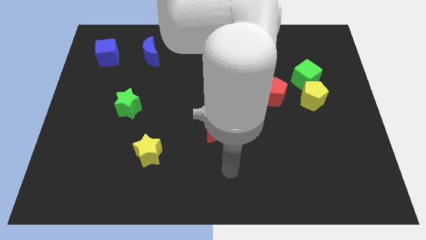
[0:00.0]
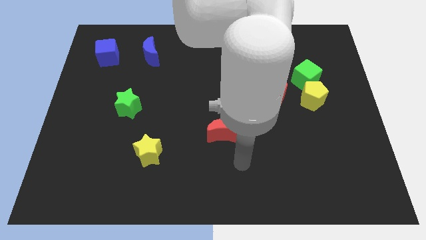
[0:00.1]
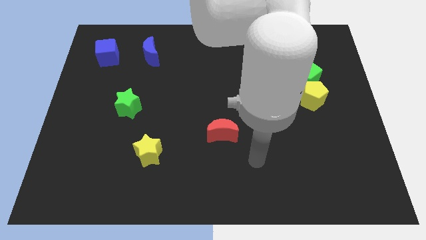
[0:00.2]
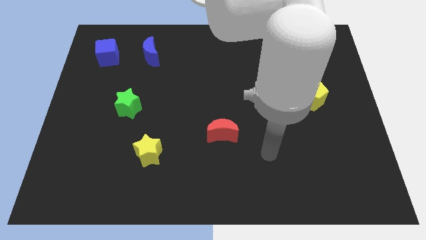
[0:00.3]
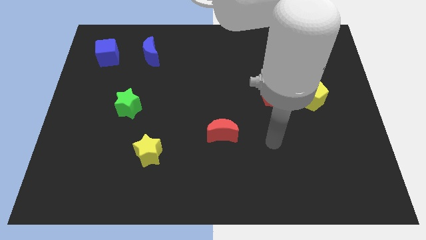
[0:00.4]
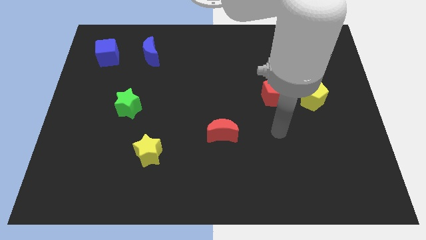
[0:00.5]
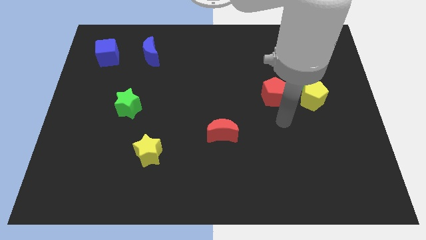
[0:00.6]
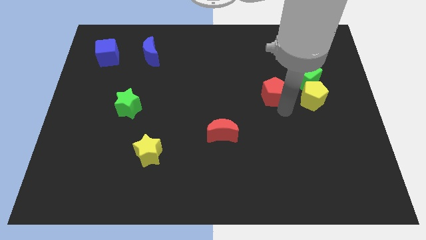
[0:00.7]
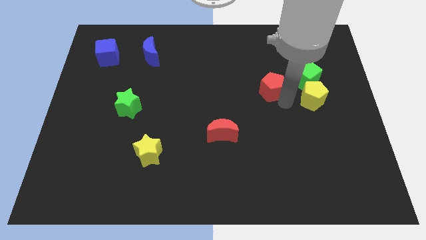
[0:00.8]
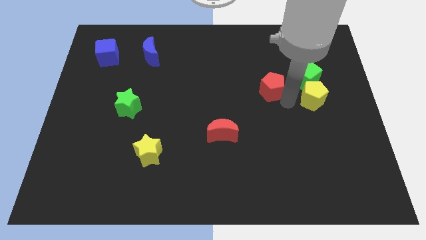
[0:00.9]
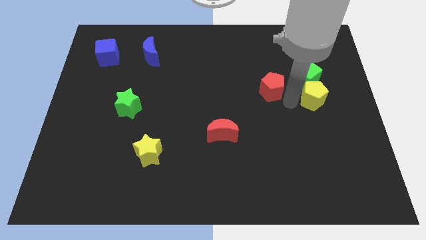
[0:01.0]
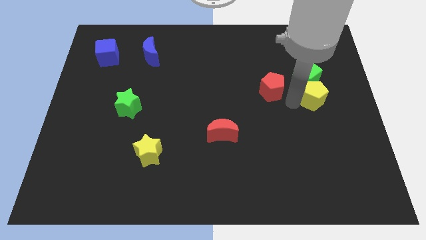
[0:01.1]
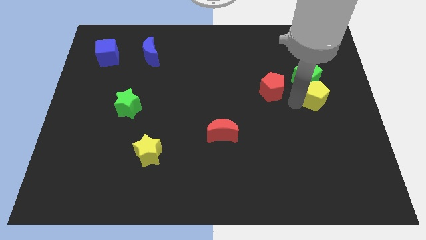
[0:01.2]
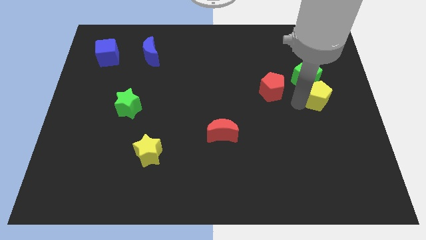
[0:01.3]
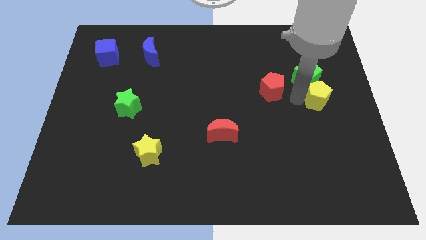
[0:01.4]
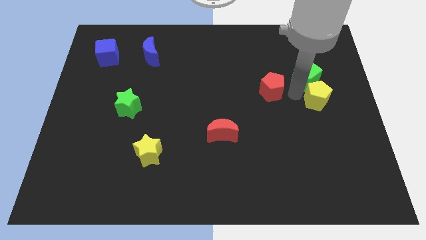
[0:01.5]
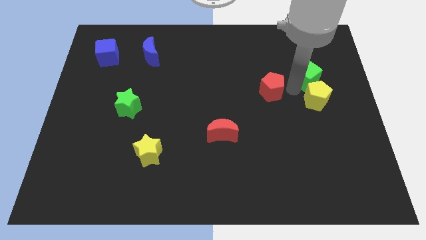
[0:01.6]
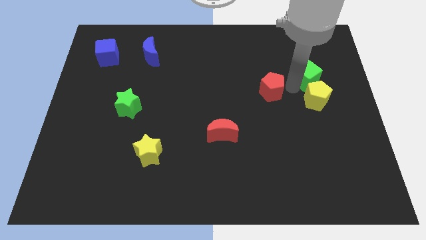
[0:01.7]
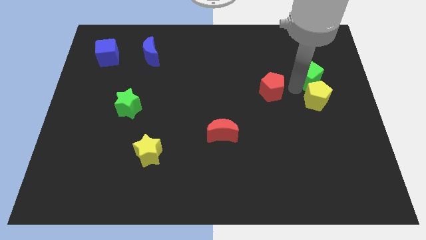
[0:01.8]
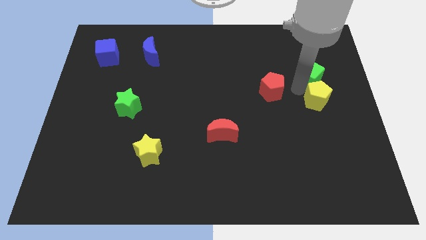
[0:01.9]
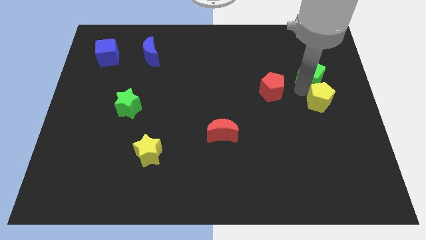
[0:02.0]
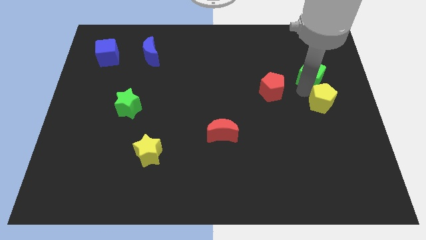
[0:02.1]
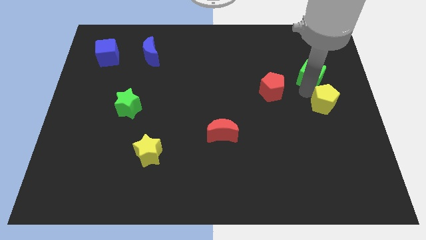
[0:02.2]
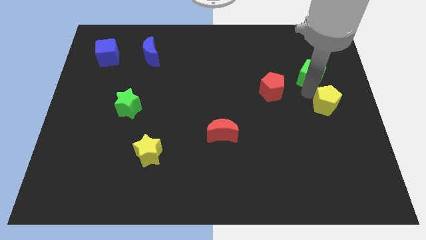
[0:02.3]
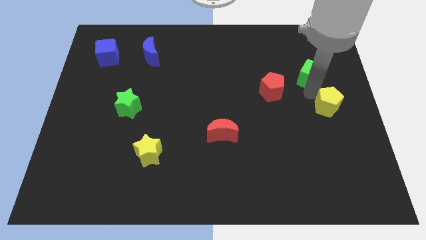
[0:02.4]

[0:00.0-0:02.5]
separate the yellow pentagon from the green cube and red pentagon

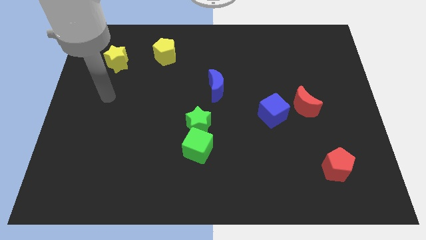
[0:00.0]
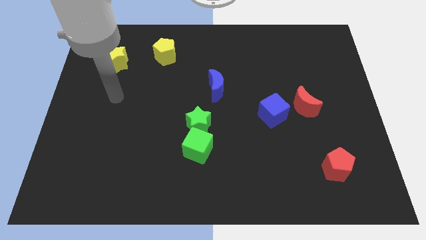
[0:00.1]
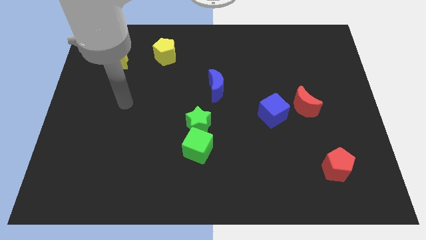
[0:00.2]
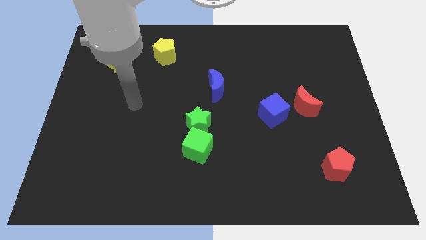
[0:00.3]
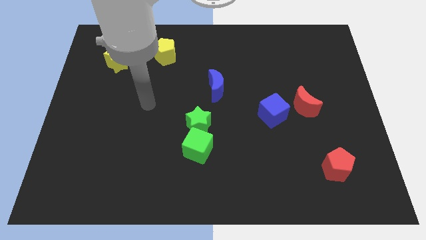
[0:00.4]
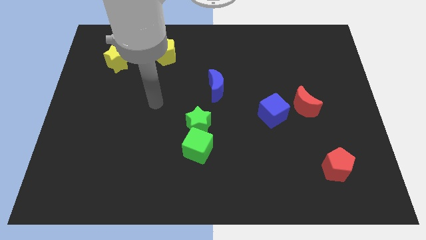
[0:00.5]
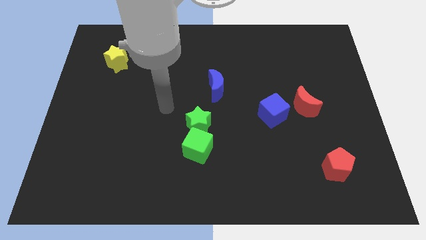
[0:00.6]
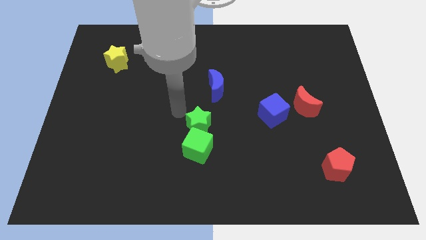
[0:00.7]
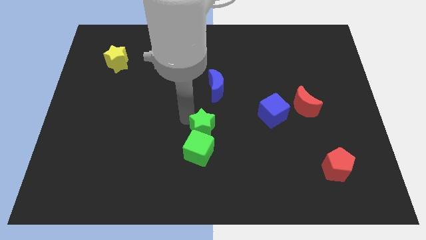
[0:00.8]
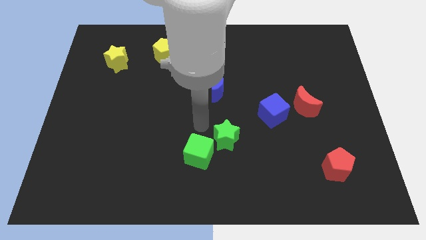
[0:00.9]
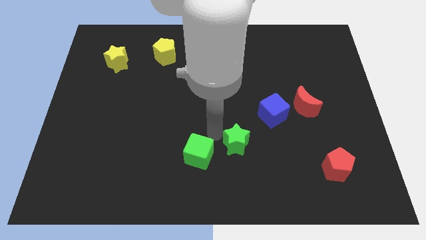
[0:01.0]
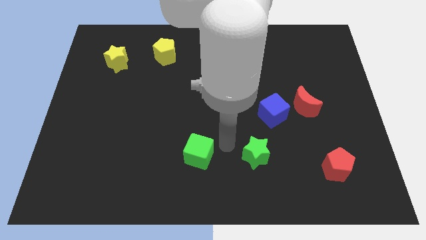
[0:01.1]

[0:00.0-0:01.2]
separate the green cube from the green star

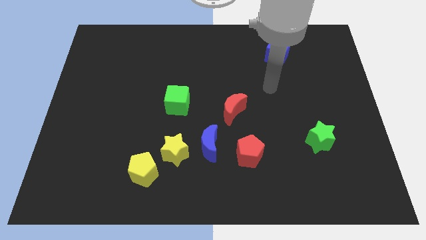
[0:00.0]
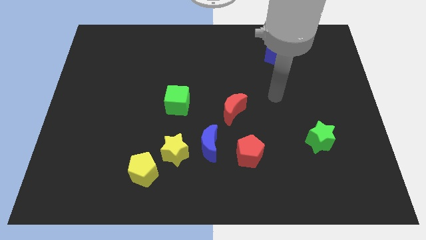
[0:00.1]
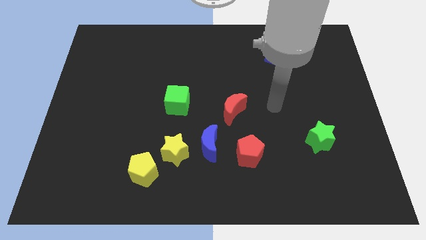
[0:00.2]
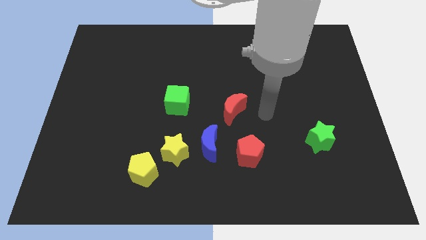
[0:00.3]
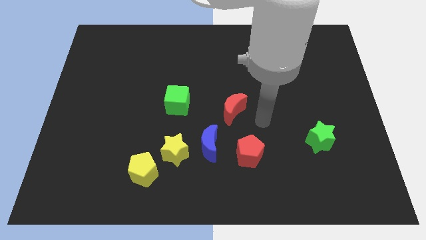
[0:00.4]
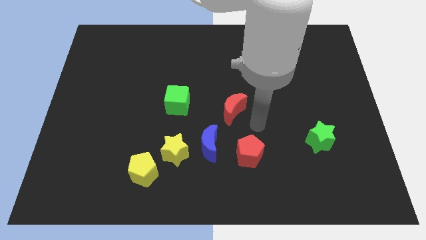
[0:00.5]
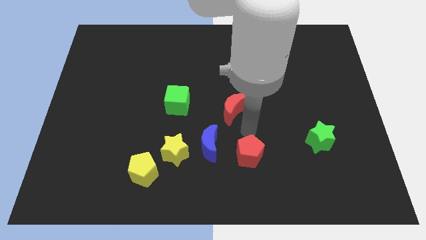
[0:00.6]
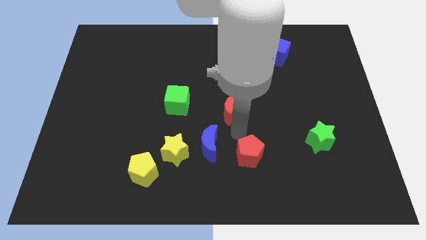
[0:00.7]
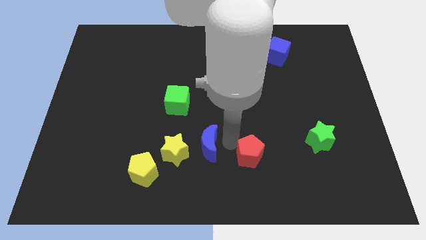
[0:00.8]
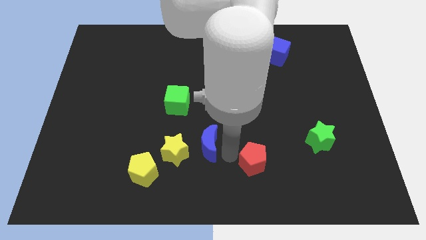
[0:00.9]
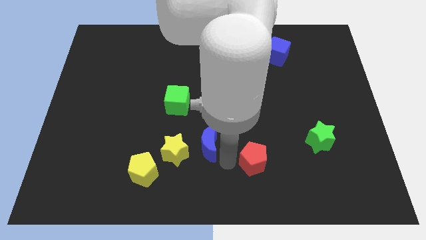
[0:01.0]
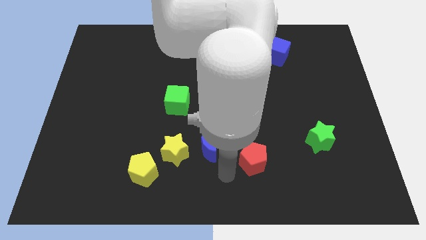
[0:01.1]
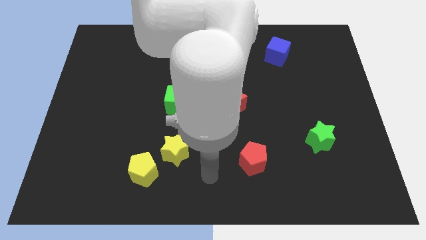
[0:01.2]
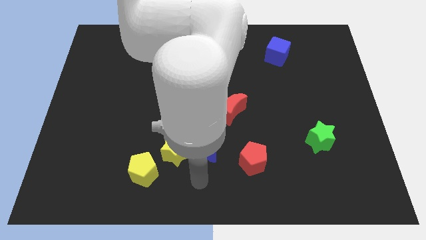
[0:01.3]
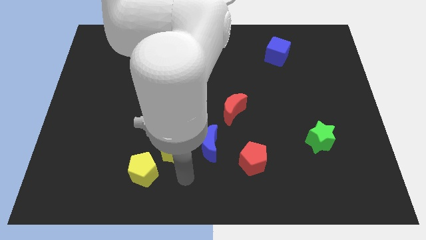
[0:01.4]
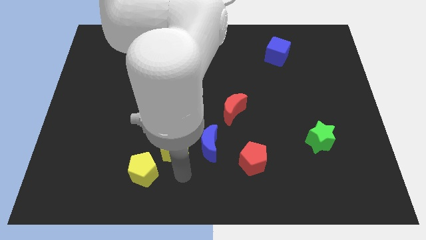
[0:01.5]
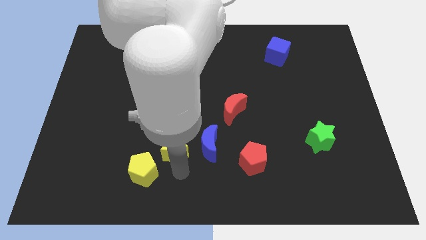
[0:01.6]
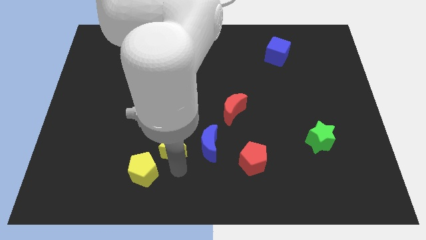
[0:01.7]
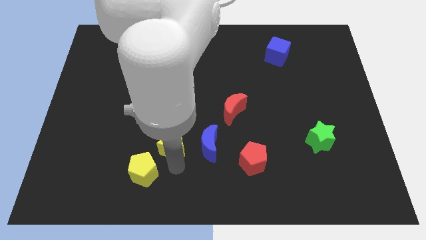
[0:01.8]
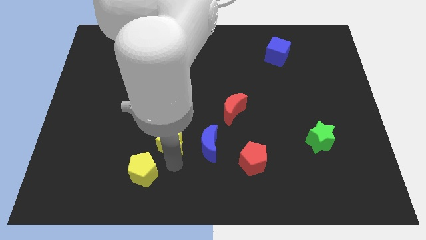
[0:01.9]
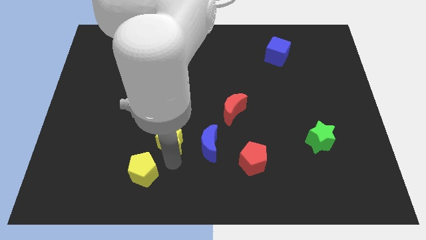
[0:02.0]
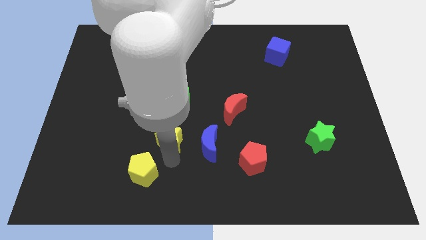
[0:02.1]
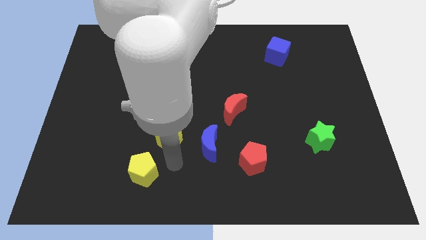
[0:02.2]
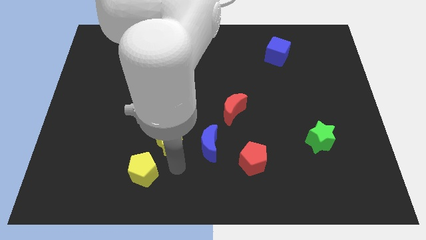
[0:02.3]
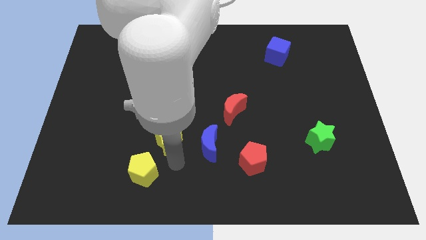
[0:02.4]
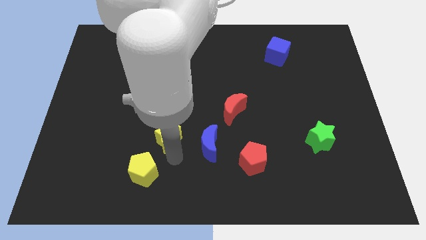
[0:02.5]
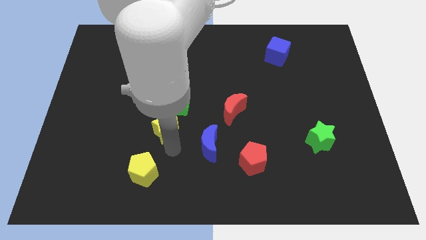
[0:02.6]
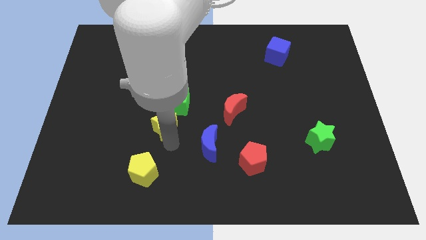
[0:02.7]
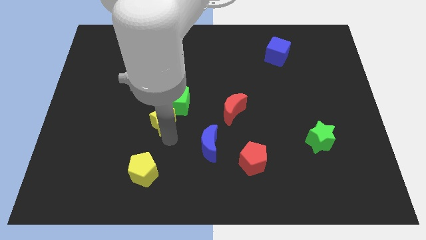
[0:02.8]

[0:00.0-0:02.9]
pull the yellow star apart from the blue moon and yellow pentagon

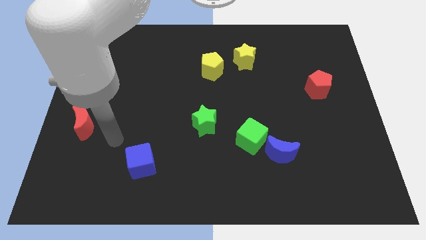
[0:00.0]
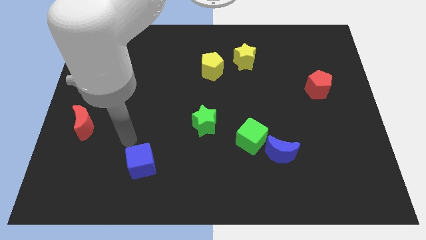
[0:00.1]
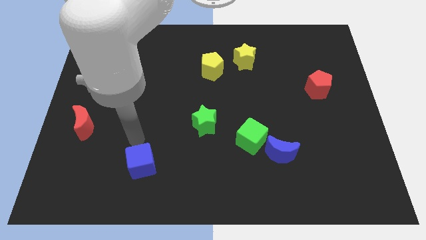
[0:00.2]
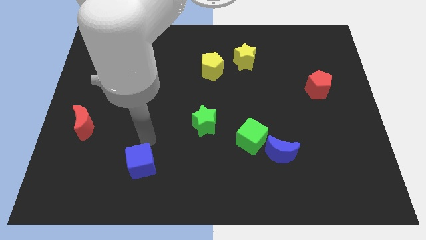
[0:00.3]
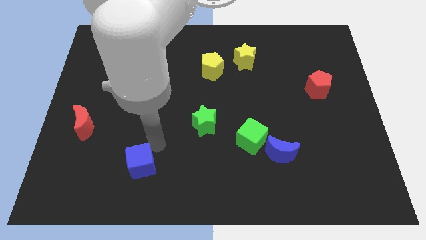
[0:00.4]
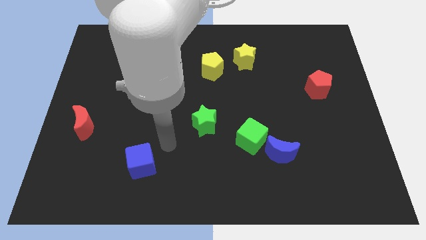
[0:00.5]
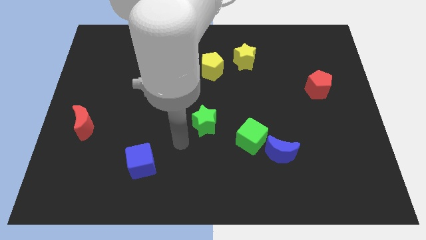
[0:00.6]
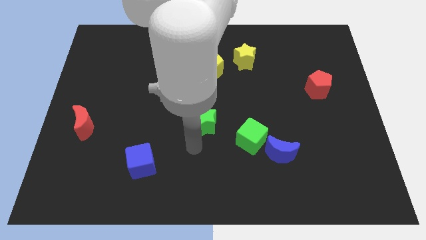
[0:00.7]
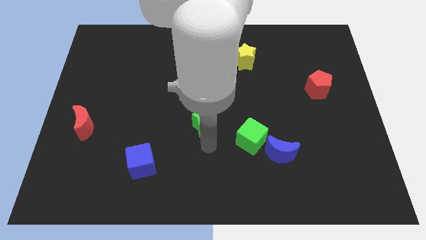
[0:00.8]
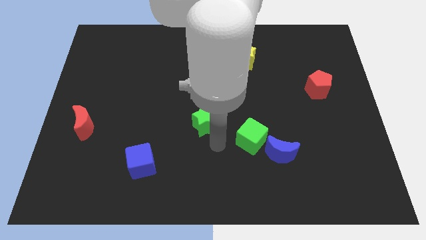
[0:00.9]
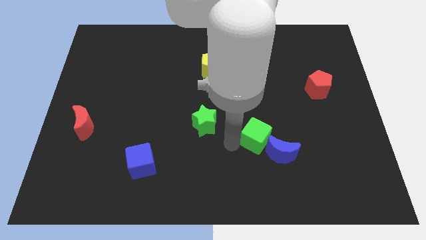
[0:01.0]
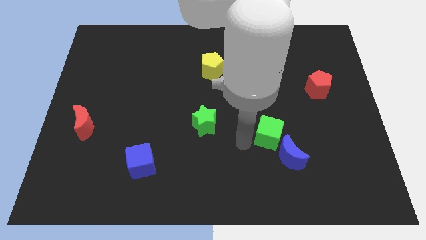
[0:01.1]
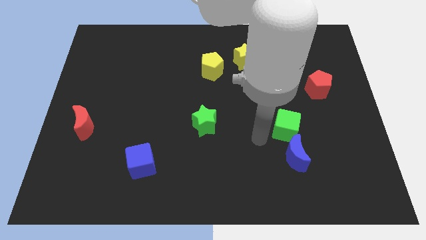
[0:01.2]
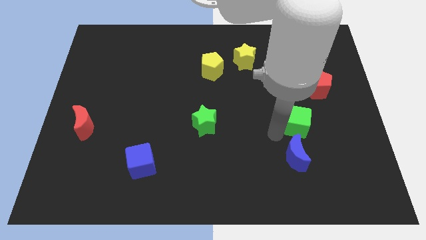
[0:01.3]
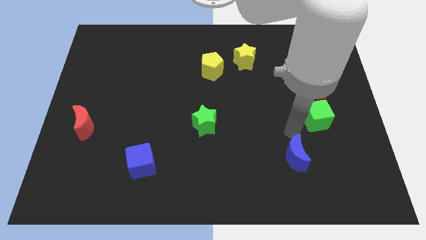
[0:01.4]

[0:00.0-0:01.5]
pull the blue moon apart from the green cube

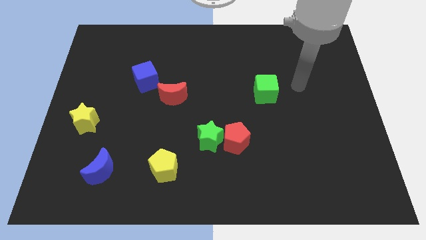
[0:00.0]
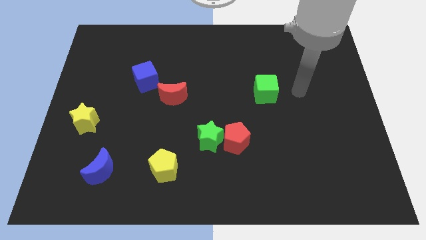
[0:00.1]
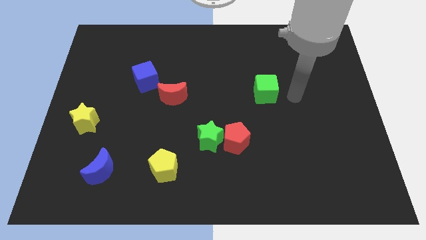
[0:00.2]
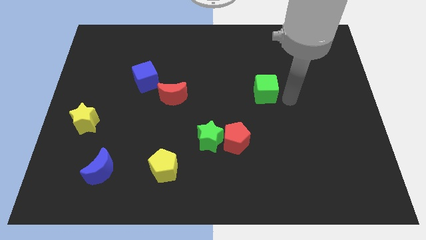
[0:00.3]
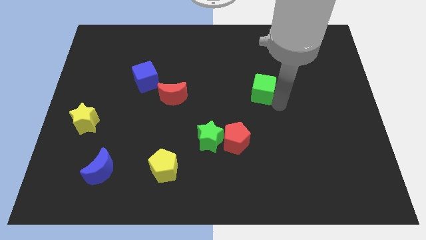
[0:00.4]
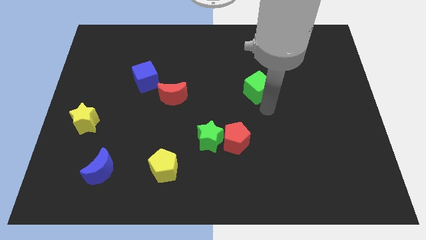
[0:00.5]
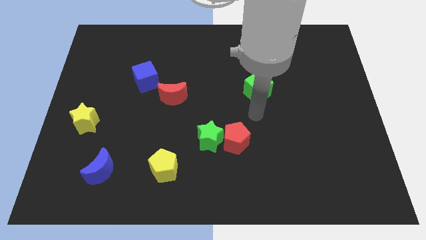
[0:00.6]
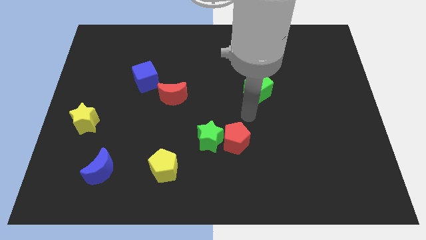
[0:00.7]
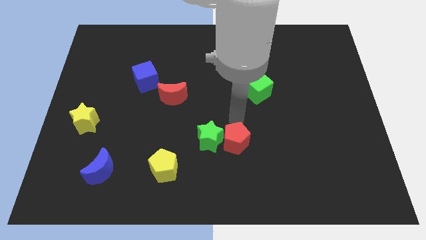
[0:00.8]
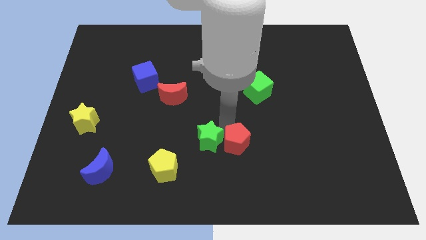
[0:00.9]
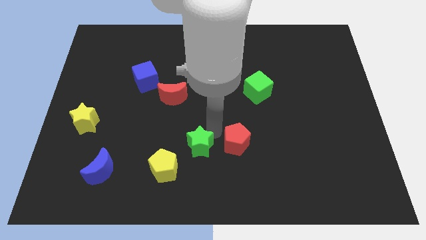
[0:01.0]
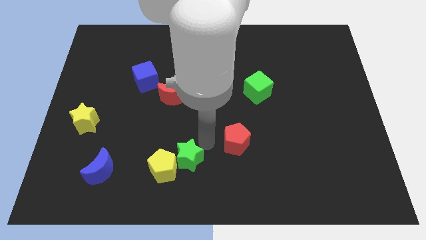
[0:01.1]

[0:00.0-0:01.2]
separate the red pentagon from the green star
